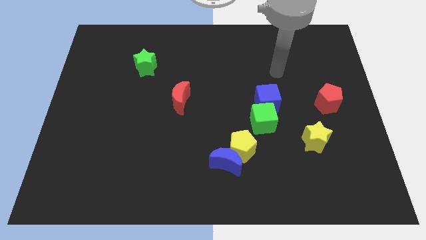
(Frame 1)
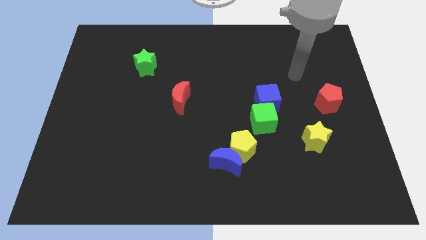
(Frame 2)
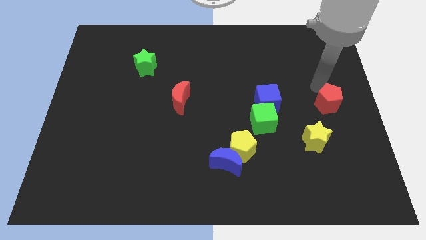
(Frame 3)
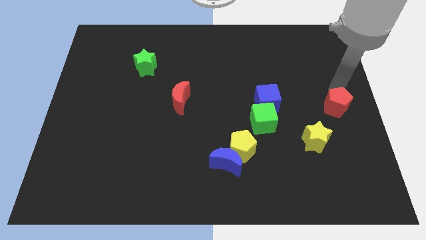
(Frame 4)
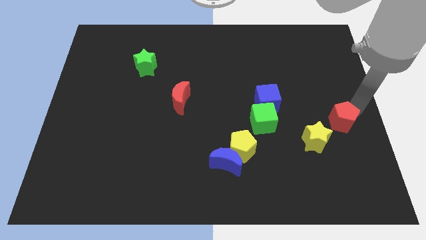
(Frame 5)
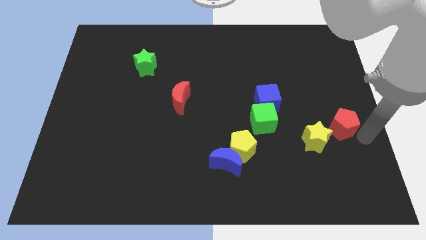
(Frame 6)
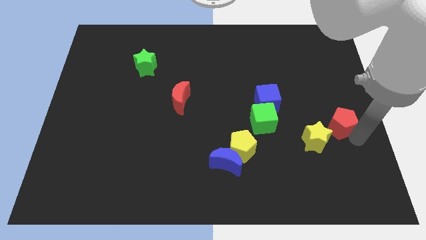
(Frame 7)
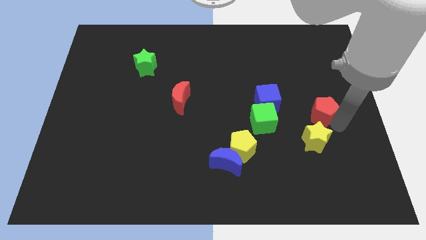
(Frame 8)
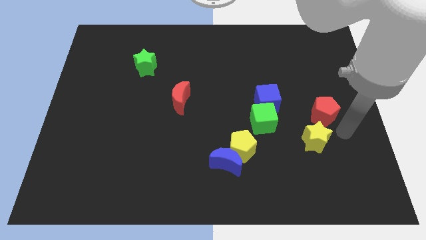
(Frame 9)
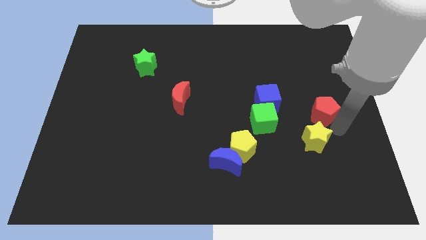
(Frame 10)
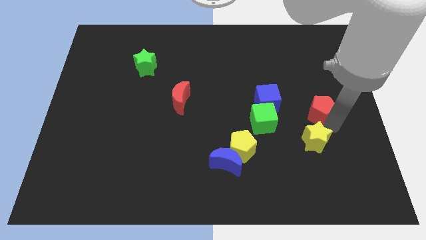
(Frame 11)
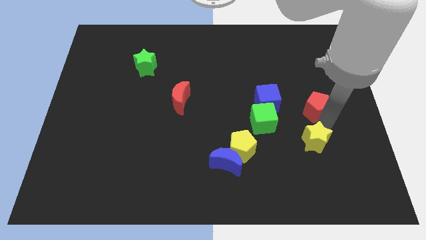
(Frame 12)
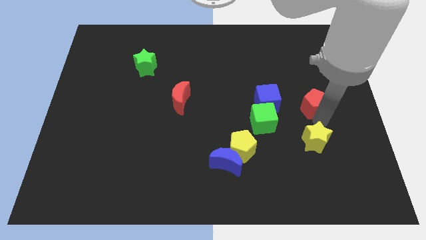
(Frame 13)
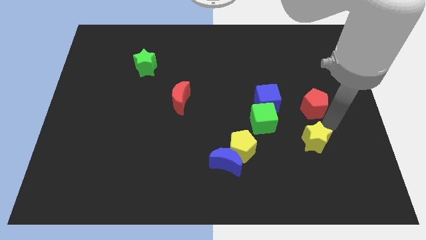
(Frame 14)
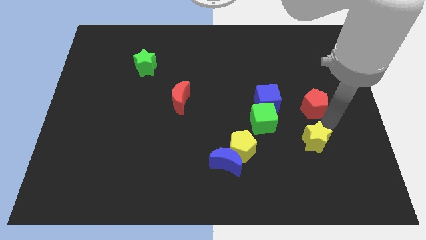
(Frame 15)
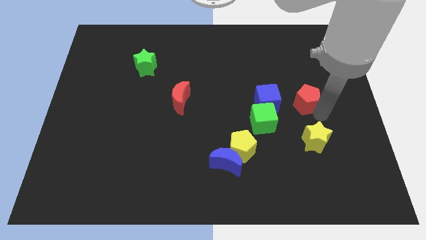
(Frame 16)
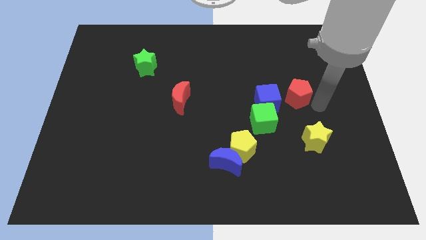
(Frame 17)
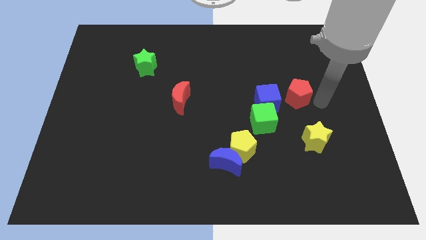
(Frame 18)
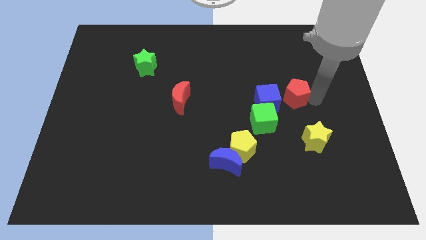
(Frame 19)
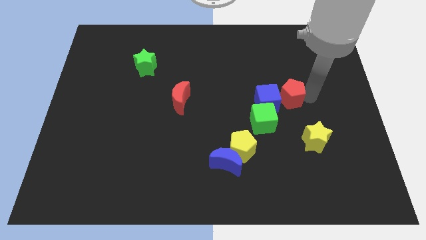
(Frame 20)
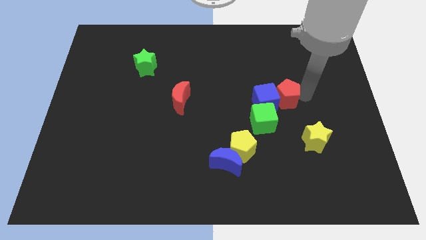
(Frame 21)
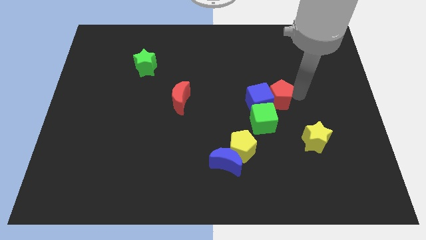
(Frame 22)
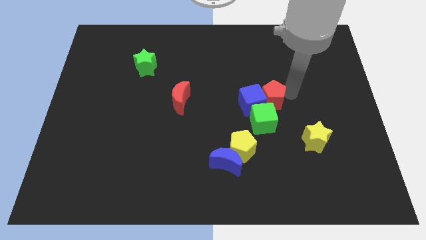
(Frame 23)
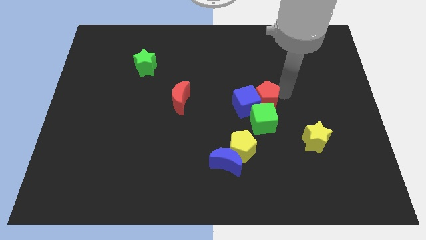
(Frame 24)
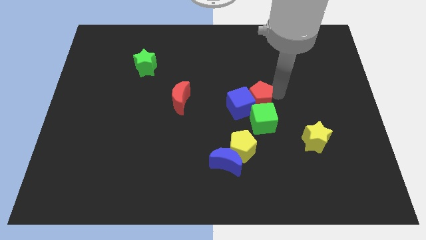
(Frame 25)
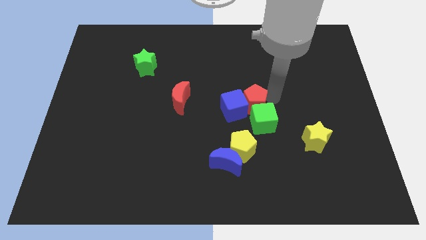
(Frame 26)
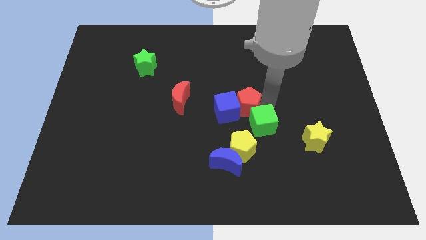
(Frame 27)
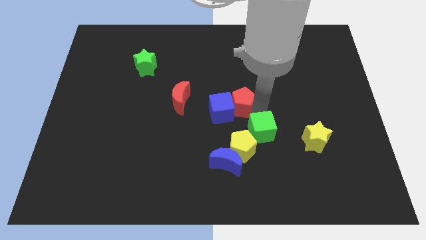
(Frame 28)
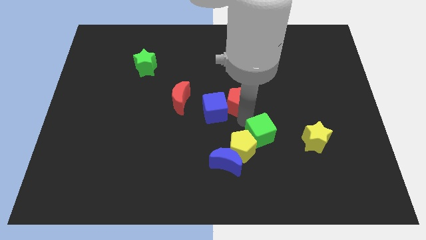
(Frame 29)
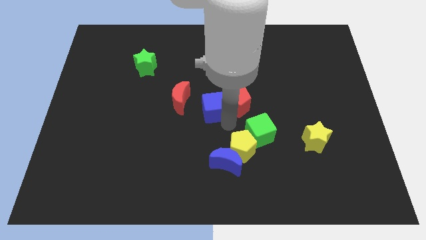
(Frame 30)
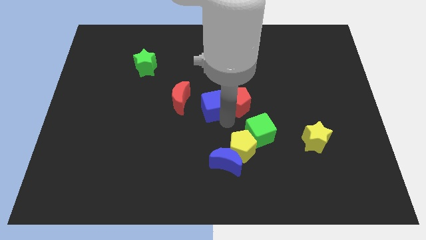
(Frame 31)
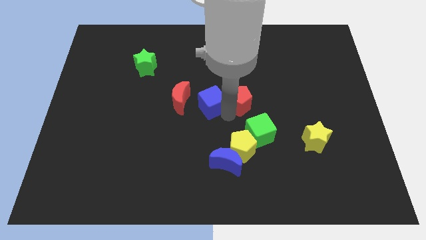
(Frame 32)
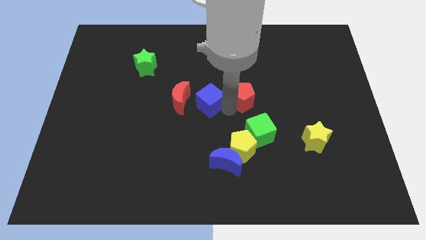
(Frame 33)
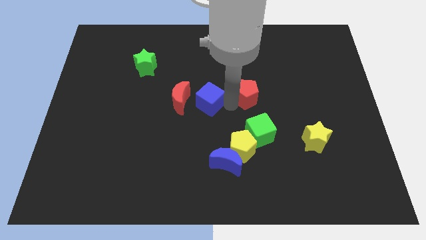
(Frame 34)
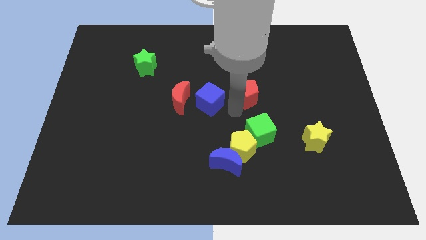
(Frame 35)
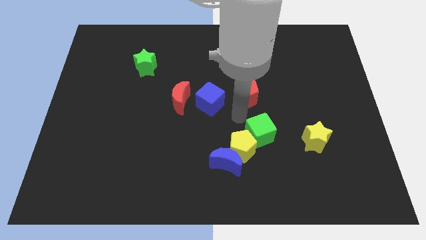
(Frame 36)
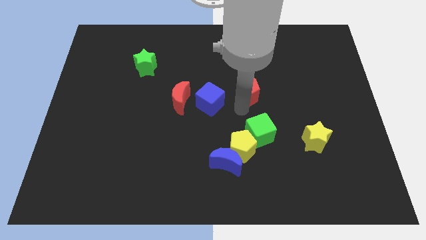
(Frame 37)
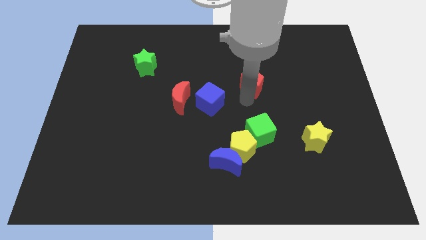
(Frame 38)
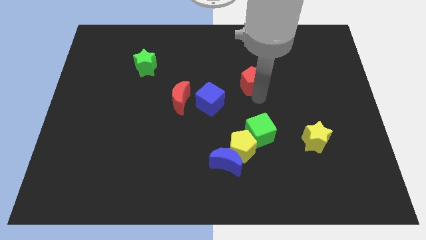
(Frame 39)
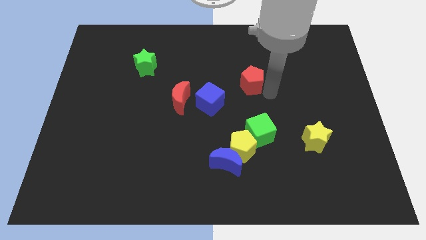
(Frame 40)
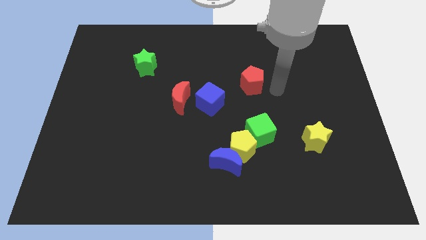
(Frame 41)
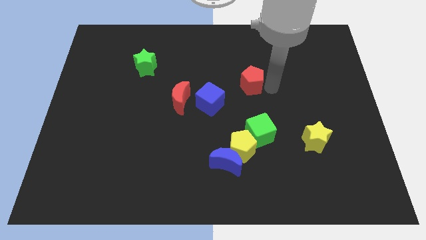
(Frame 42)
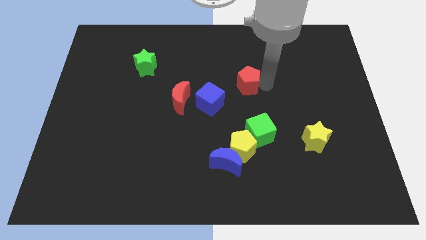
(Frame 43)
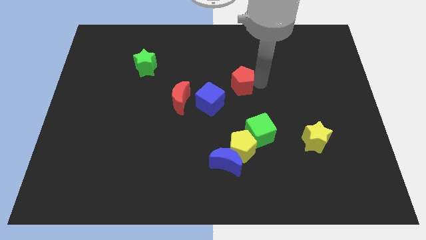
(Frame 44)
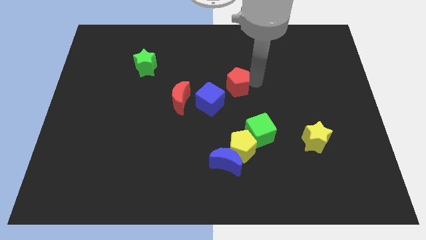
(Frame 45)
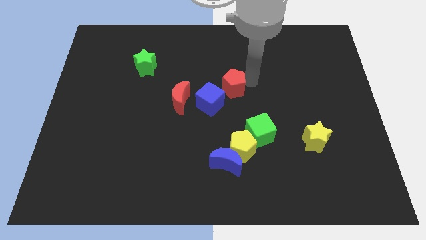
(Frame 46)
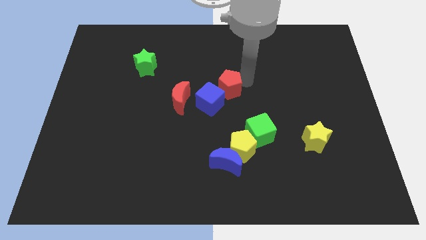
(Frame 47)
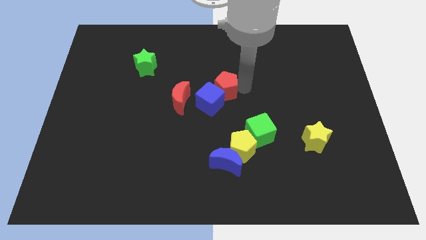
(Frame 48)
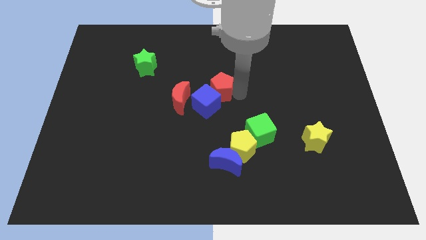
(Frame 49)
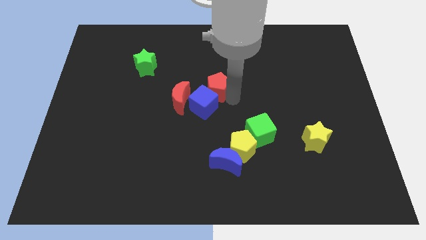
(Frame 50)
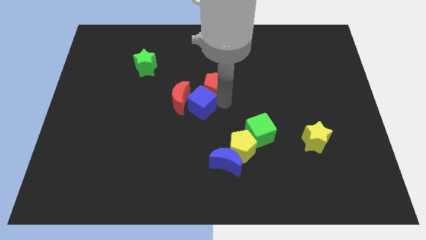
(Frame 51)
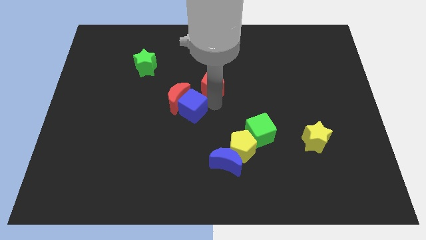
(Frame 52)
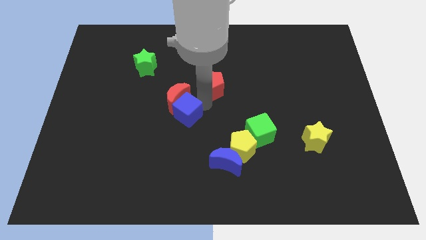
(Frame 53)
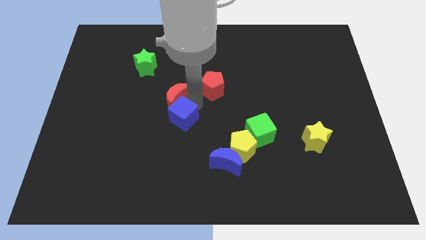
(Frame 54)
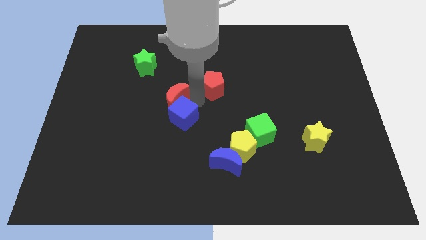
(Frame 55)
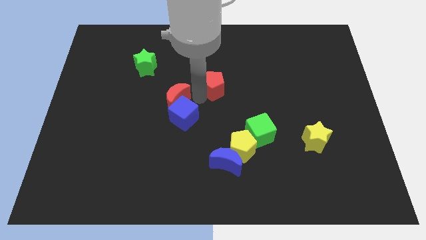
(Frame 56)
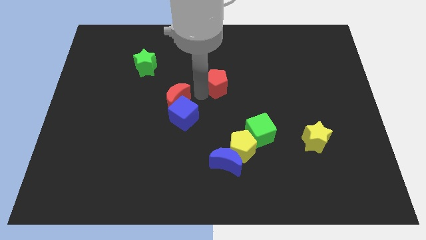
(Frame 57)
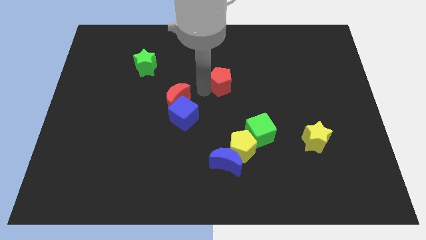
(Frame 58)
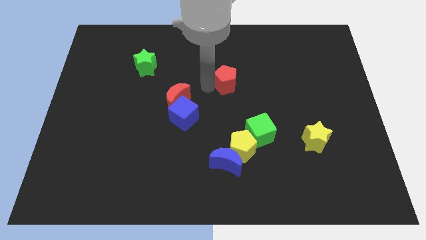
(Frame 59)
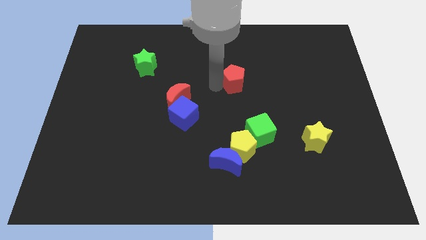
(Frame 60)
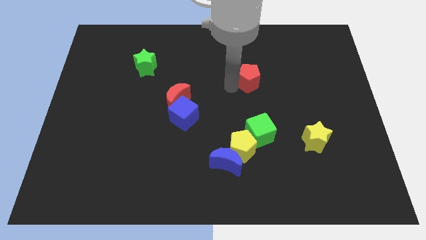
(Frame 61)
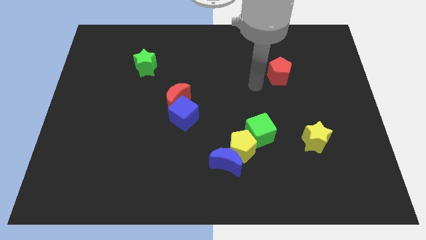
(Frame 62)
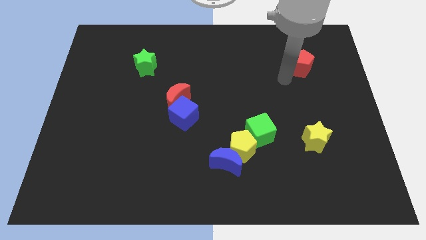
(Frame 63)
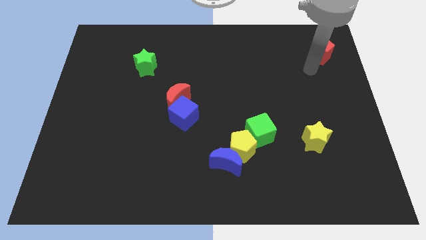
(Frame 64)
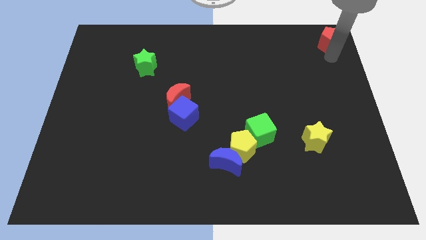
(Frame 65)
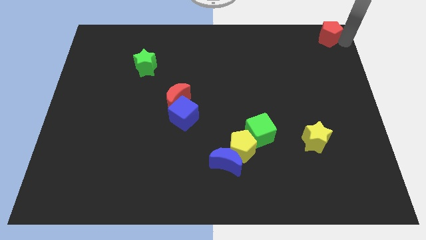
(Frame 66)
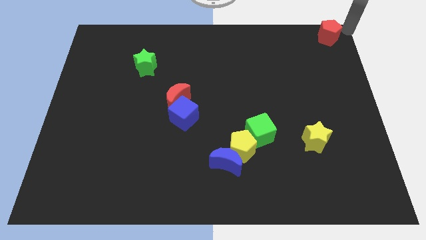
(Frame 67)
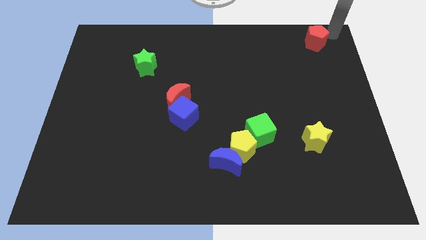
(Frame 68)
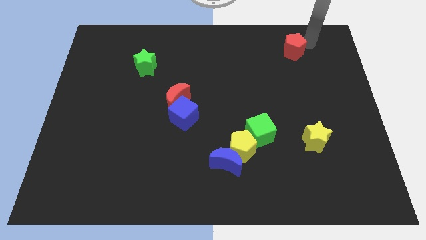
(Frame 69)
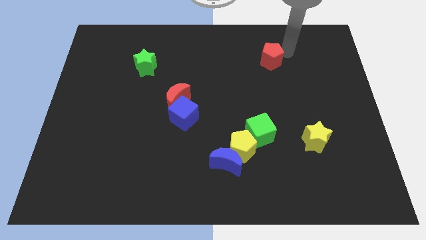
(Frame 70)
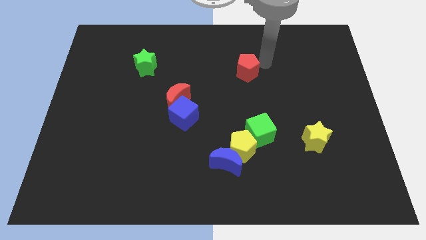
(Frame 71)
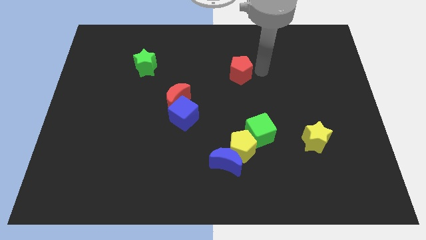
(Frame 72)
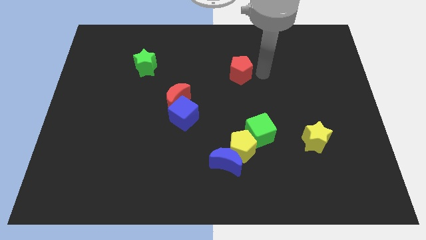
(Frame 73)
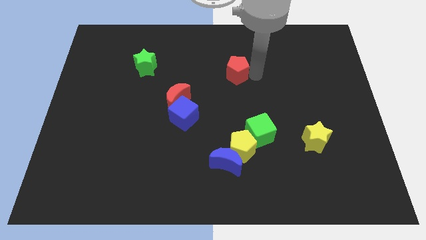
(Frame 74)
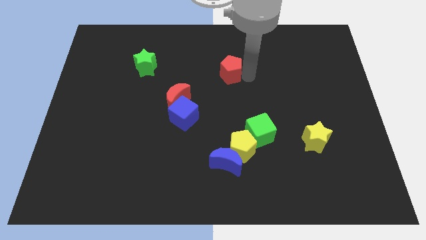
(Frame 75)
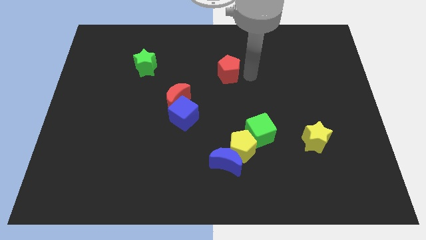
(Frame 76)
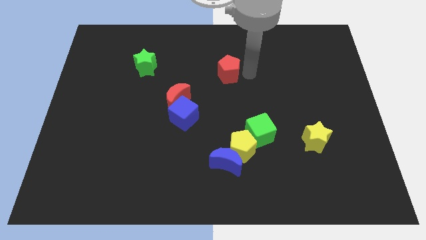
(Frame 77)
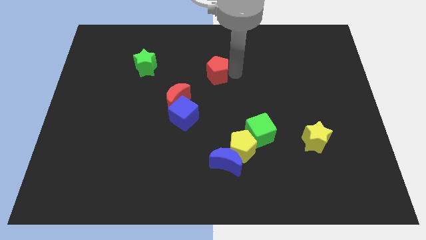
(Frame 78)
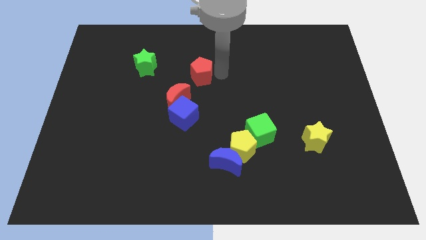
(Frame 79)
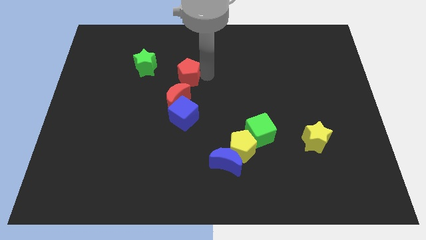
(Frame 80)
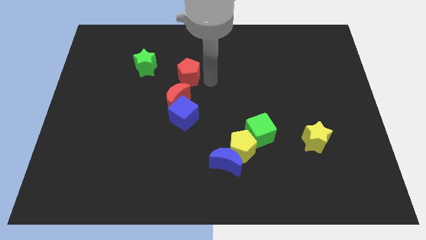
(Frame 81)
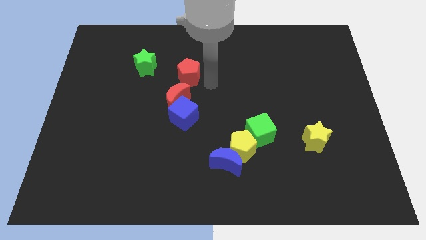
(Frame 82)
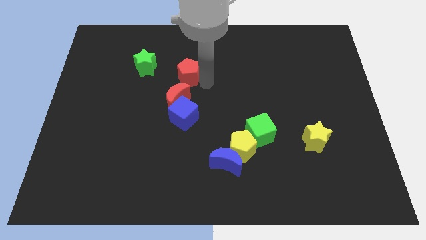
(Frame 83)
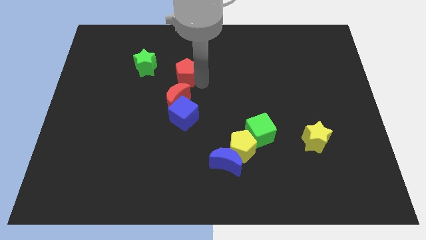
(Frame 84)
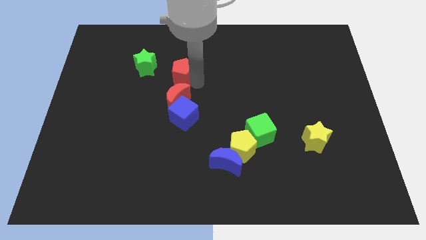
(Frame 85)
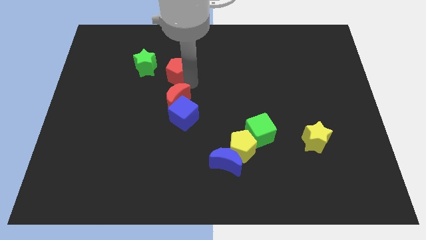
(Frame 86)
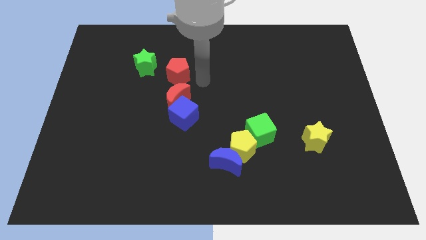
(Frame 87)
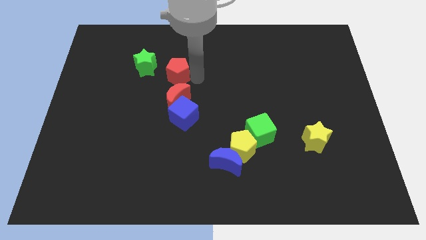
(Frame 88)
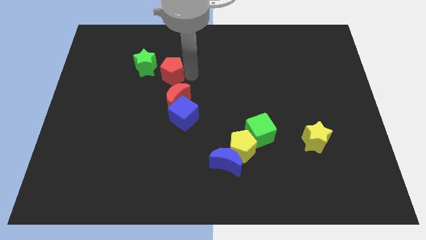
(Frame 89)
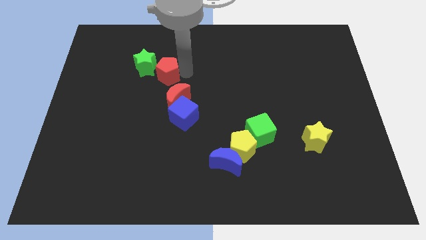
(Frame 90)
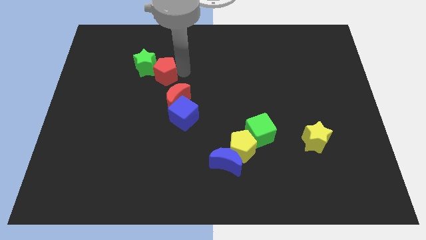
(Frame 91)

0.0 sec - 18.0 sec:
slide the red pentagon towards the green star
